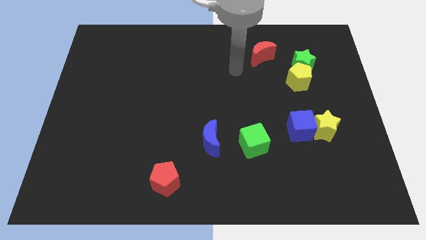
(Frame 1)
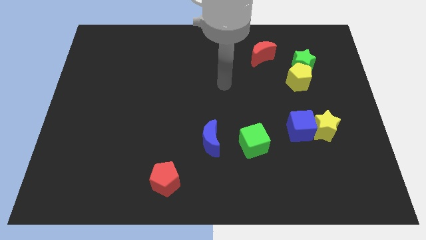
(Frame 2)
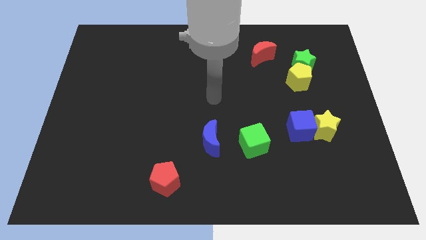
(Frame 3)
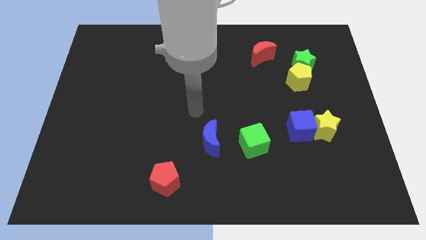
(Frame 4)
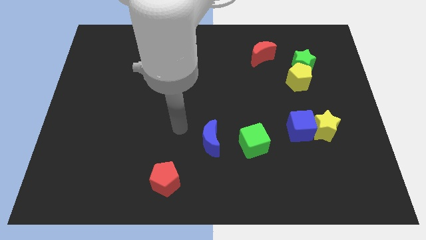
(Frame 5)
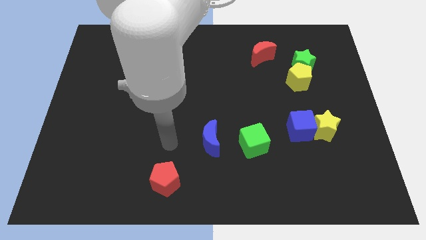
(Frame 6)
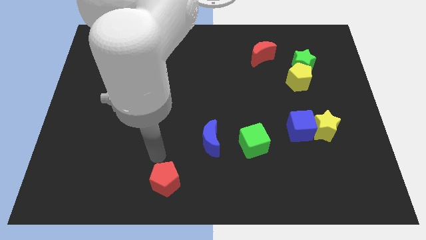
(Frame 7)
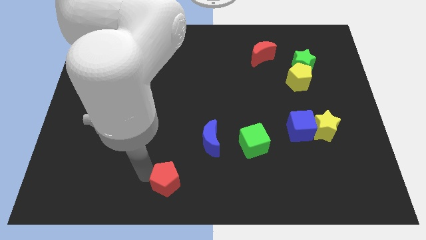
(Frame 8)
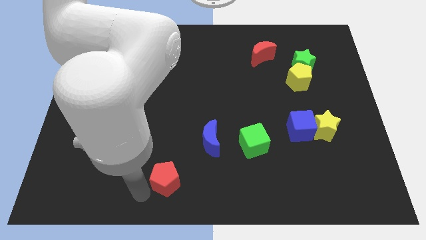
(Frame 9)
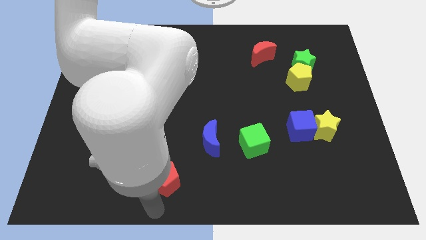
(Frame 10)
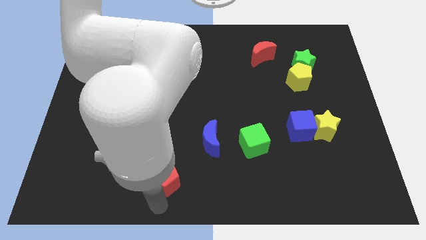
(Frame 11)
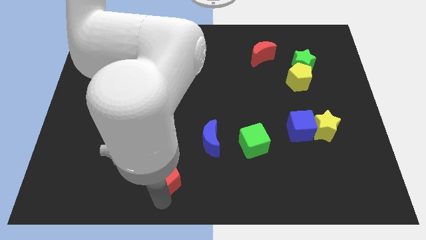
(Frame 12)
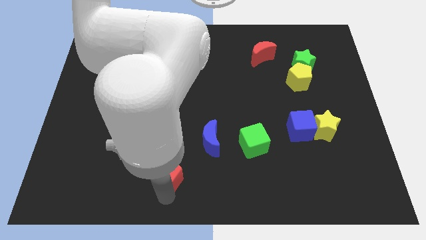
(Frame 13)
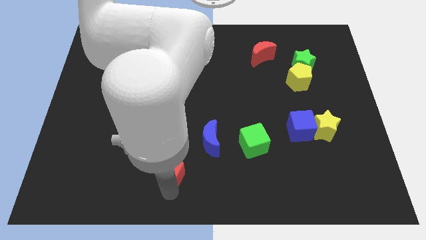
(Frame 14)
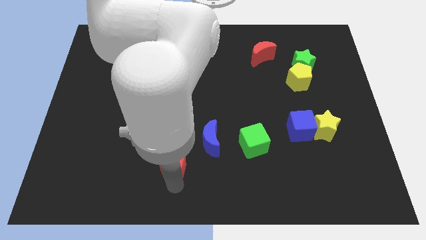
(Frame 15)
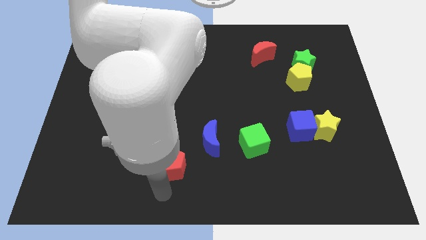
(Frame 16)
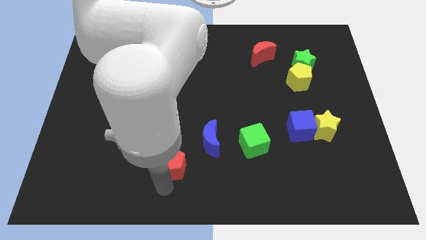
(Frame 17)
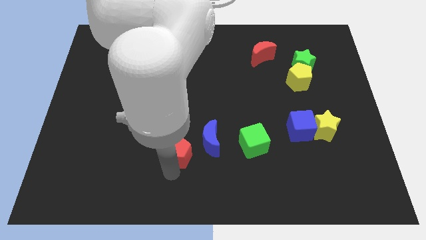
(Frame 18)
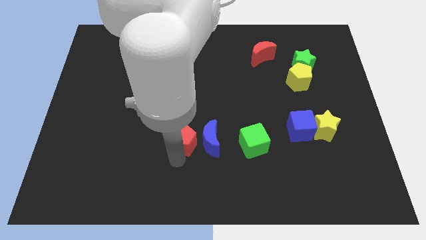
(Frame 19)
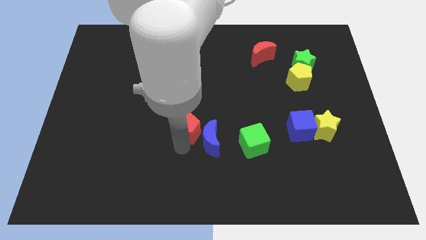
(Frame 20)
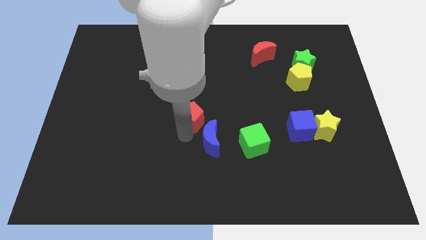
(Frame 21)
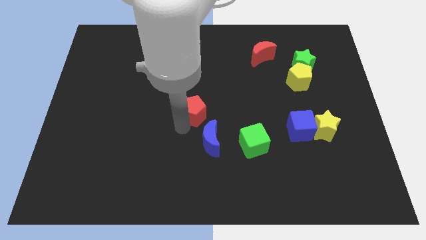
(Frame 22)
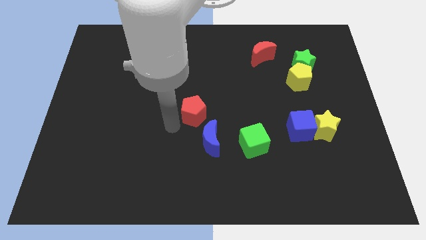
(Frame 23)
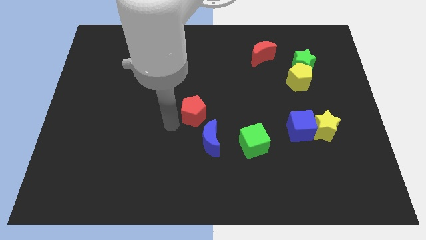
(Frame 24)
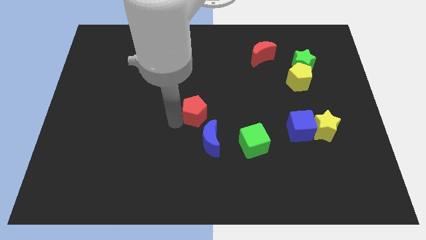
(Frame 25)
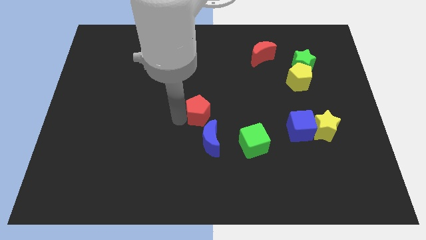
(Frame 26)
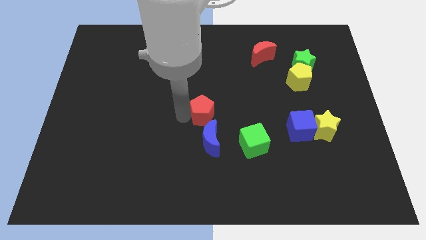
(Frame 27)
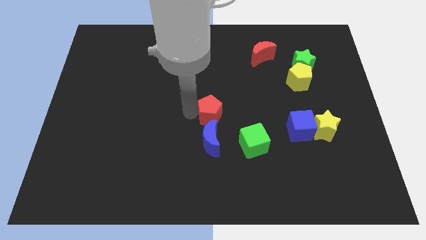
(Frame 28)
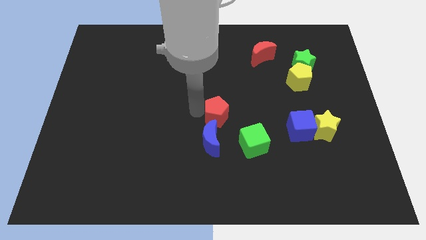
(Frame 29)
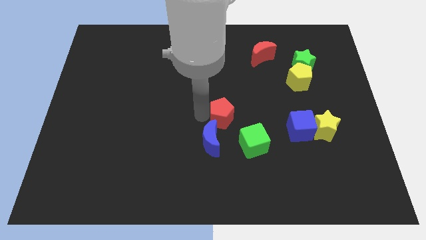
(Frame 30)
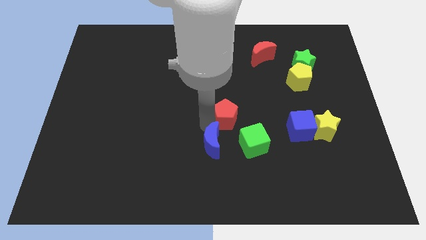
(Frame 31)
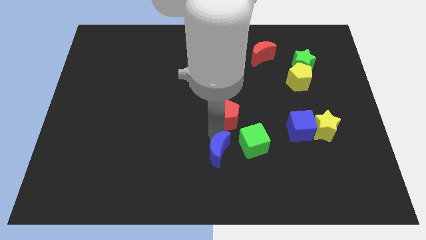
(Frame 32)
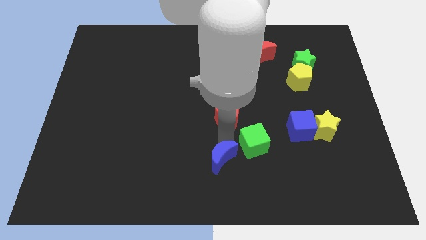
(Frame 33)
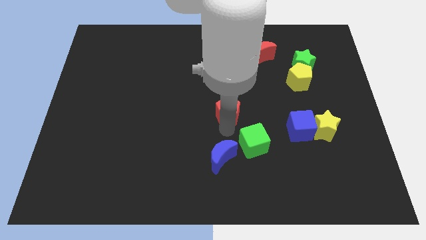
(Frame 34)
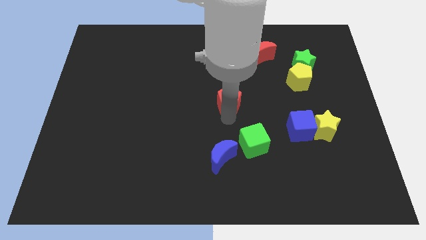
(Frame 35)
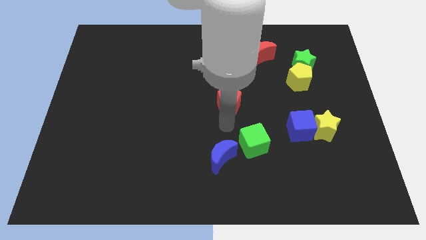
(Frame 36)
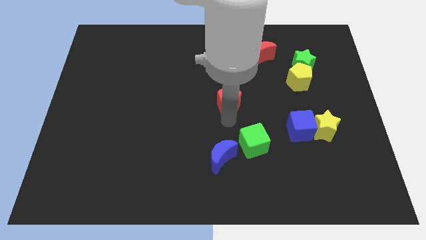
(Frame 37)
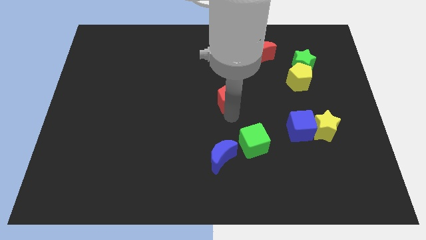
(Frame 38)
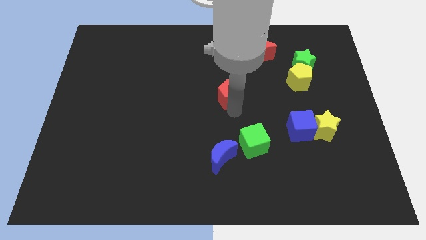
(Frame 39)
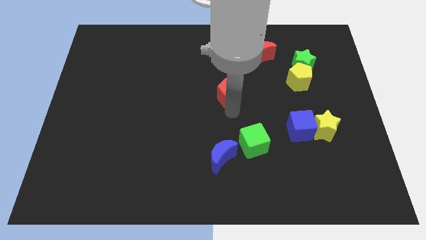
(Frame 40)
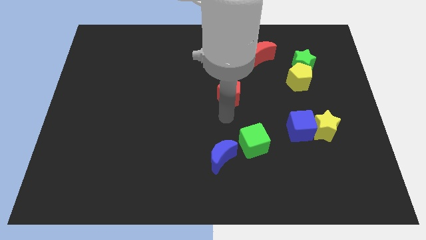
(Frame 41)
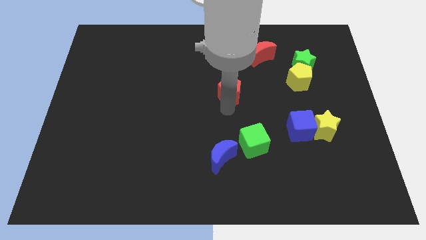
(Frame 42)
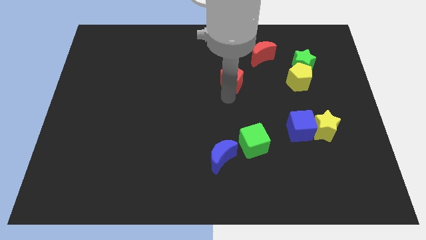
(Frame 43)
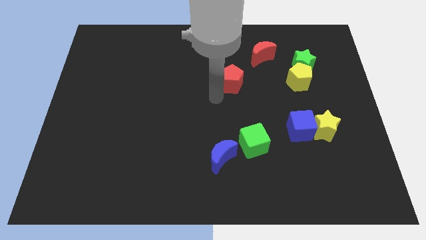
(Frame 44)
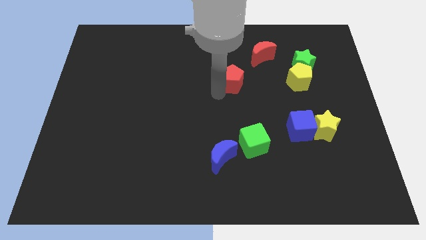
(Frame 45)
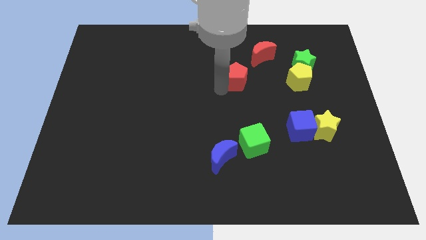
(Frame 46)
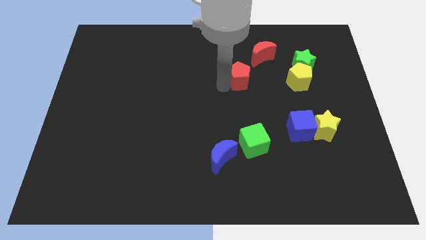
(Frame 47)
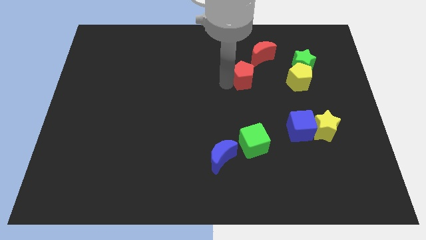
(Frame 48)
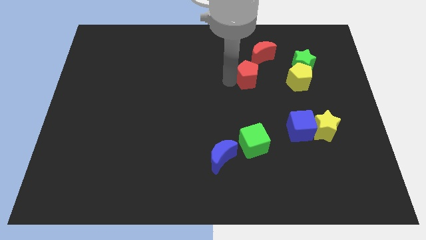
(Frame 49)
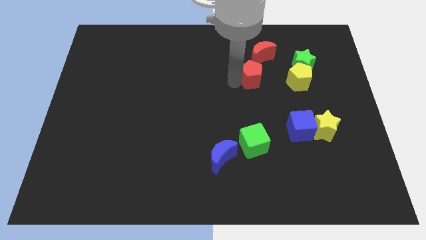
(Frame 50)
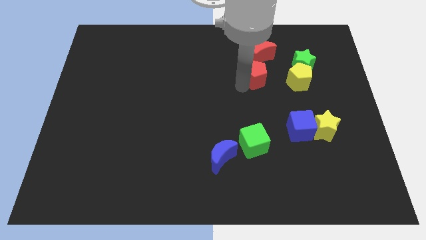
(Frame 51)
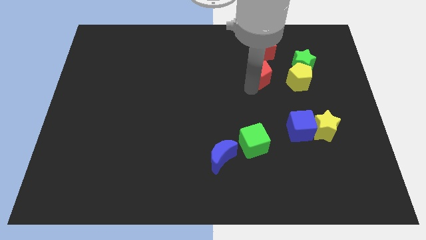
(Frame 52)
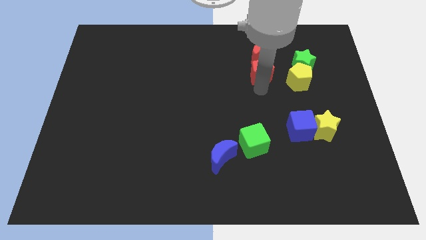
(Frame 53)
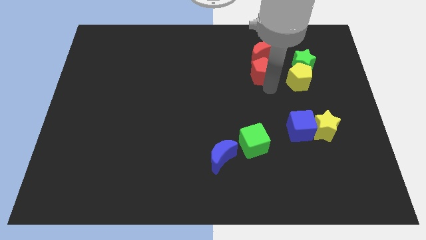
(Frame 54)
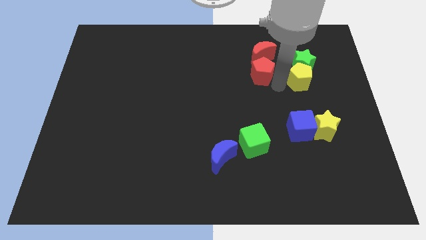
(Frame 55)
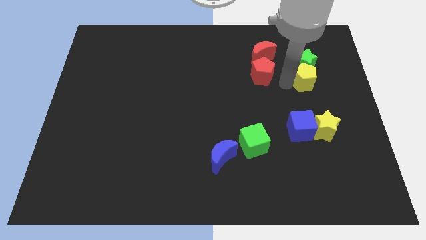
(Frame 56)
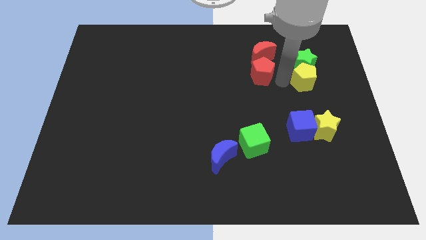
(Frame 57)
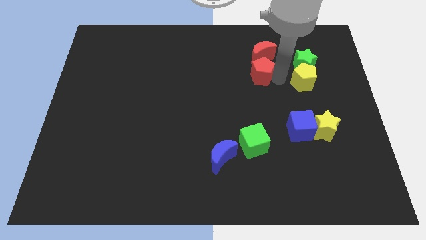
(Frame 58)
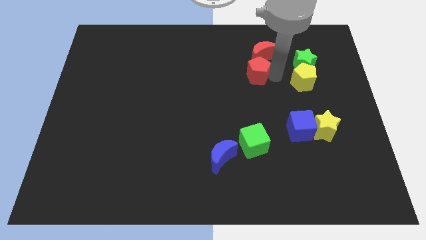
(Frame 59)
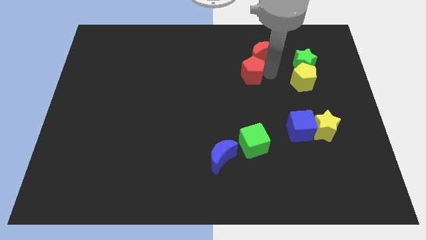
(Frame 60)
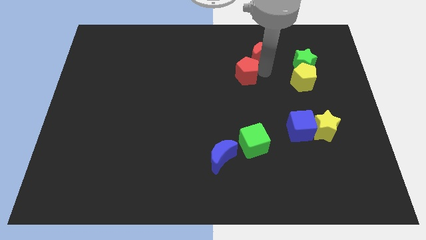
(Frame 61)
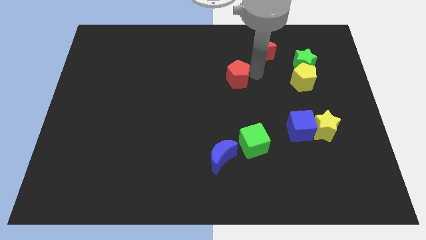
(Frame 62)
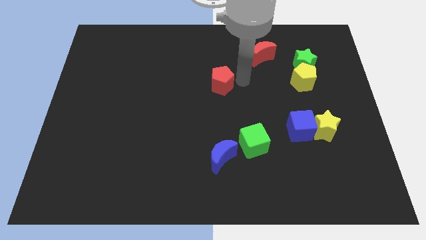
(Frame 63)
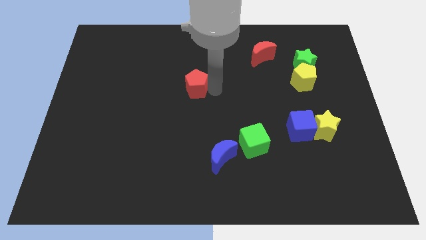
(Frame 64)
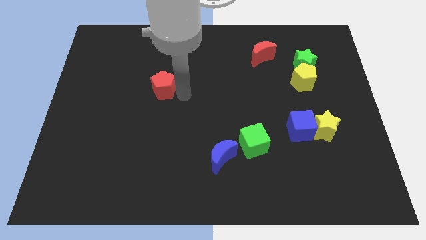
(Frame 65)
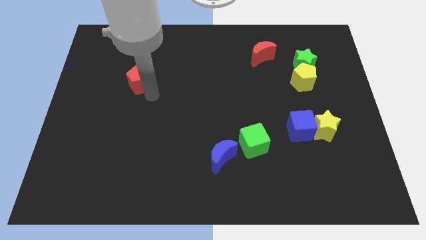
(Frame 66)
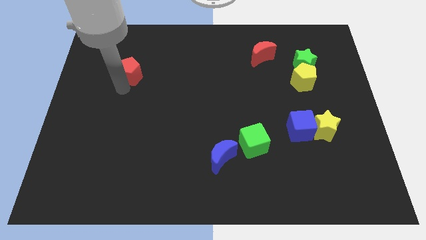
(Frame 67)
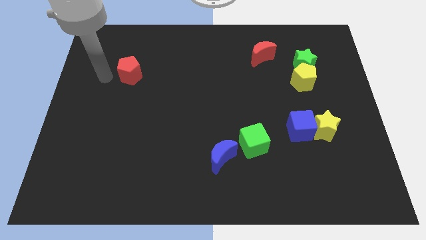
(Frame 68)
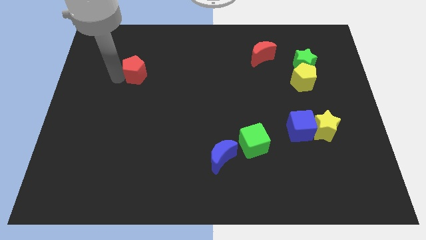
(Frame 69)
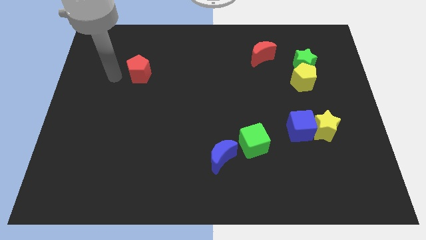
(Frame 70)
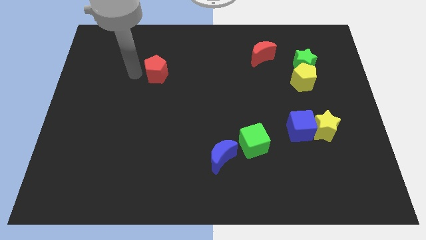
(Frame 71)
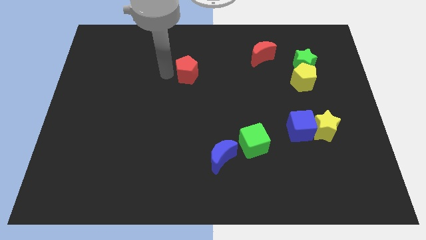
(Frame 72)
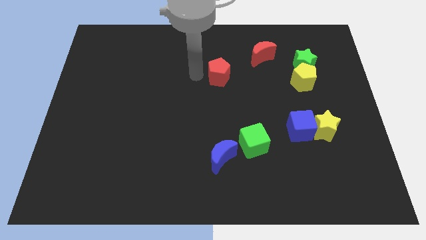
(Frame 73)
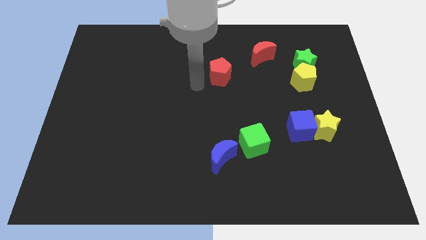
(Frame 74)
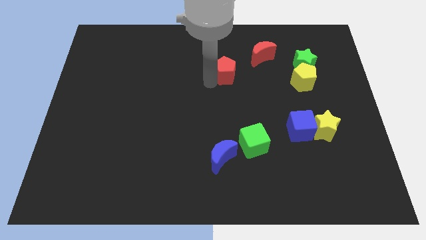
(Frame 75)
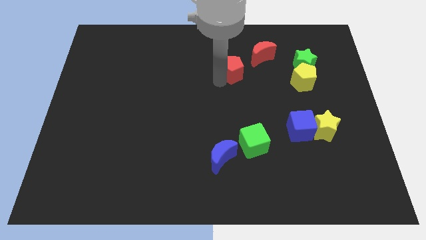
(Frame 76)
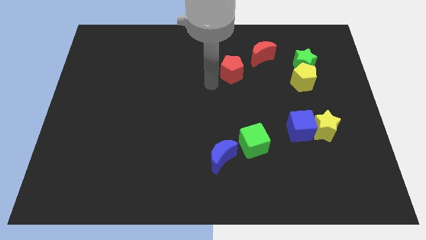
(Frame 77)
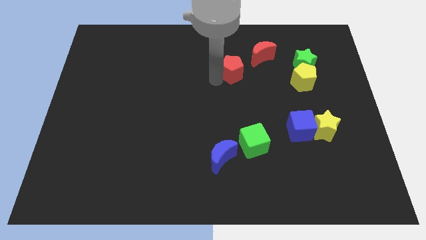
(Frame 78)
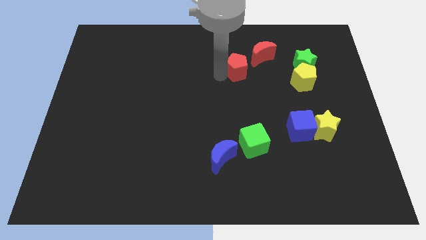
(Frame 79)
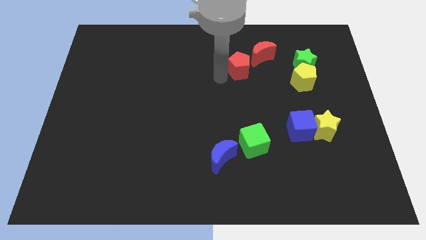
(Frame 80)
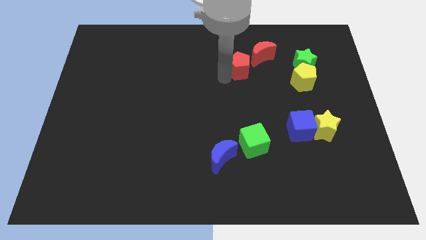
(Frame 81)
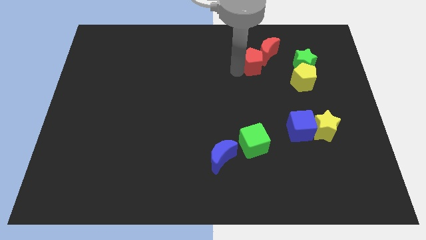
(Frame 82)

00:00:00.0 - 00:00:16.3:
slide the red pentagon close to the red moon
